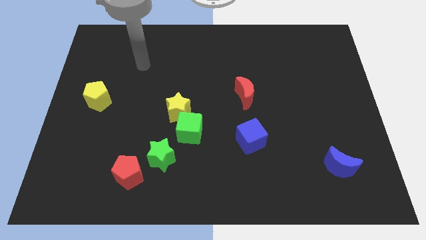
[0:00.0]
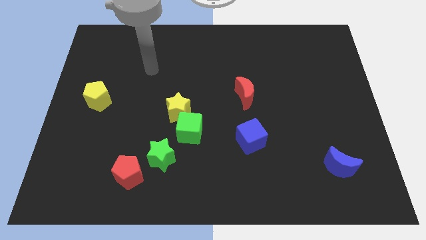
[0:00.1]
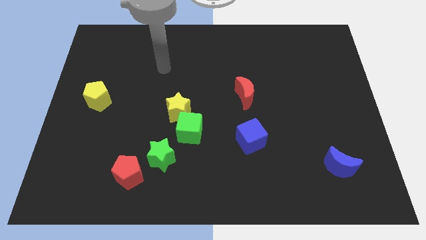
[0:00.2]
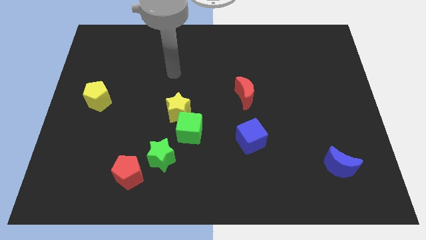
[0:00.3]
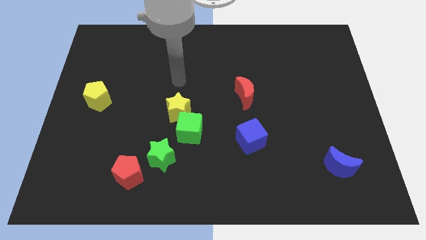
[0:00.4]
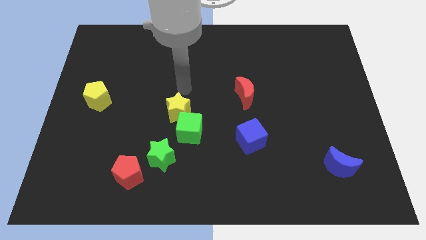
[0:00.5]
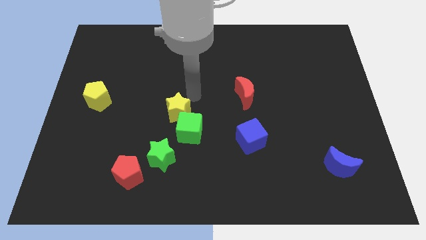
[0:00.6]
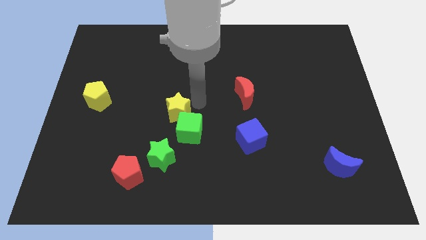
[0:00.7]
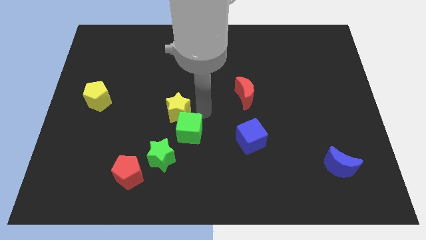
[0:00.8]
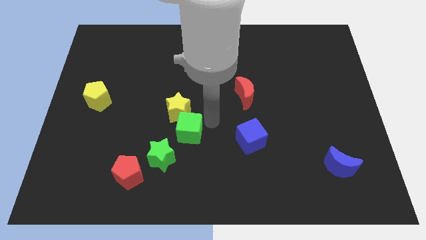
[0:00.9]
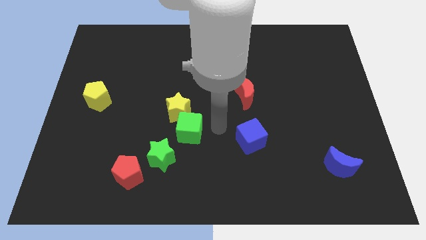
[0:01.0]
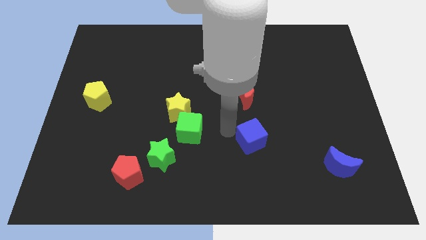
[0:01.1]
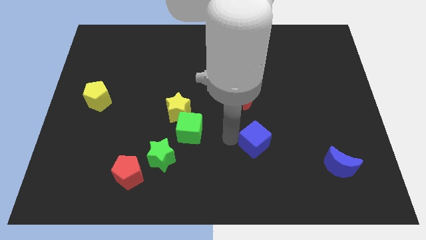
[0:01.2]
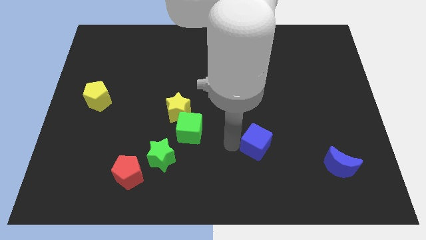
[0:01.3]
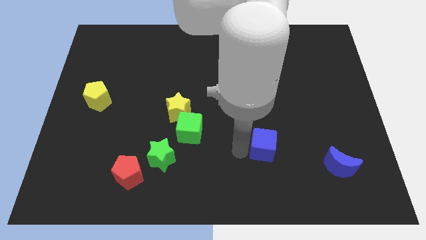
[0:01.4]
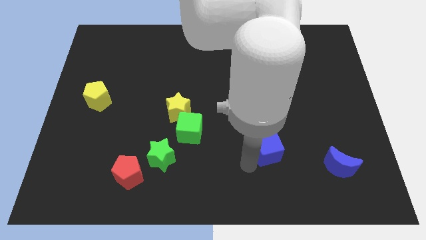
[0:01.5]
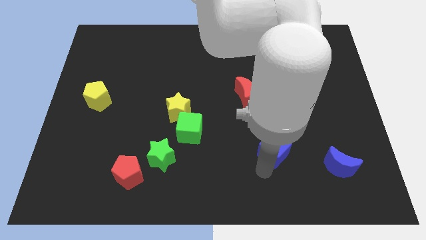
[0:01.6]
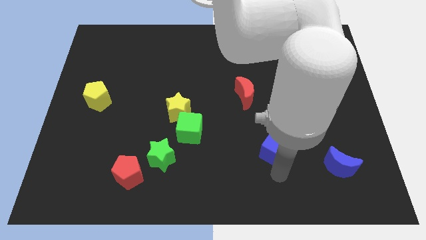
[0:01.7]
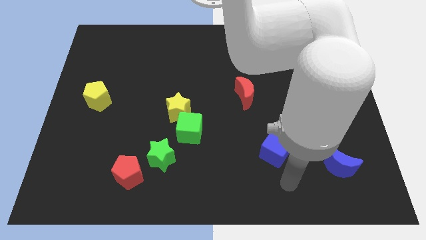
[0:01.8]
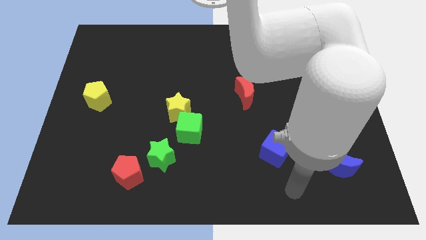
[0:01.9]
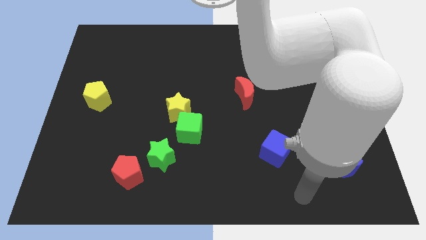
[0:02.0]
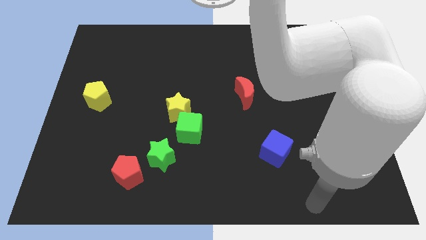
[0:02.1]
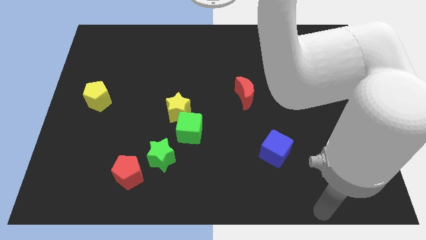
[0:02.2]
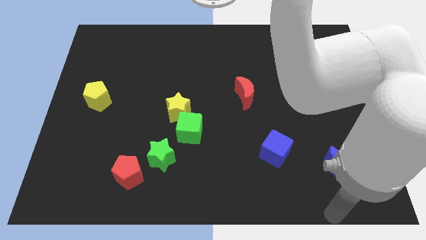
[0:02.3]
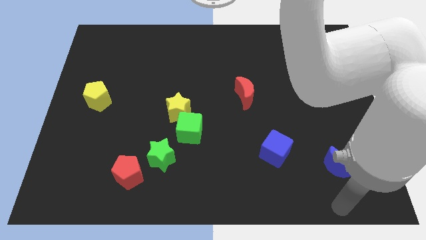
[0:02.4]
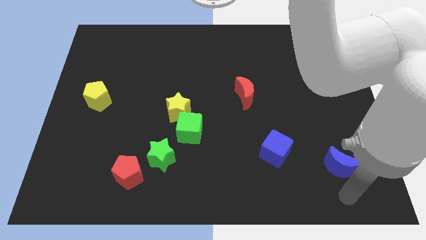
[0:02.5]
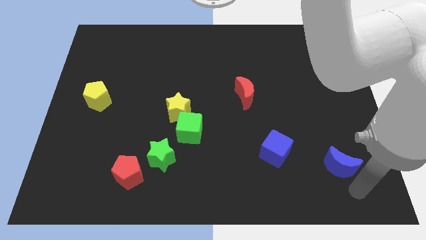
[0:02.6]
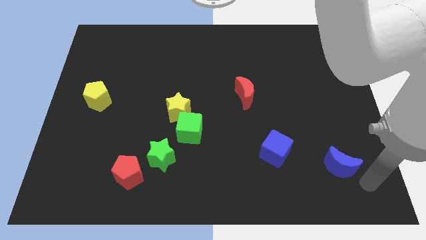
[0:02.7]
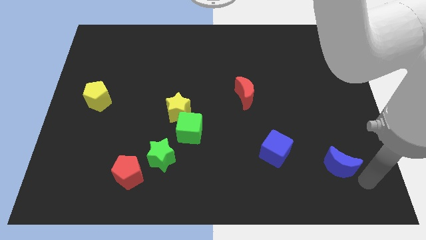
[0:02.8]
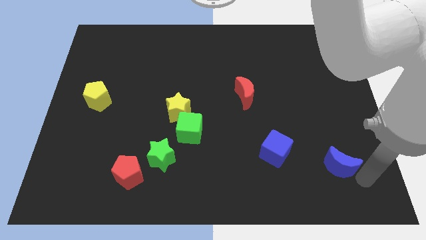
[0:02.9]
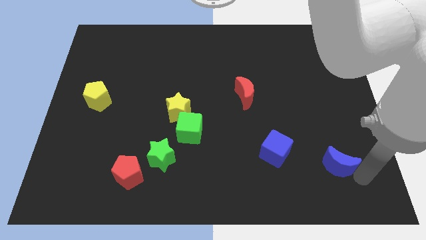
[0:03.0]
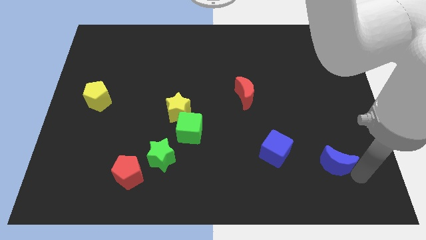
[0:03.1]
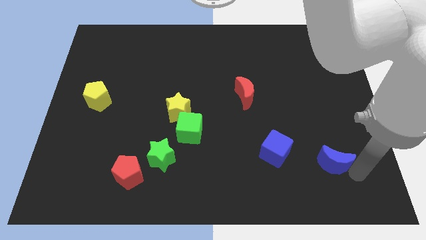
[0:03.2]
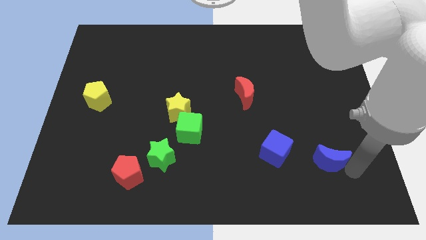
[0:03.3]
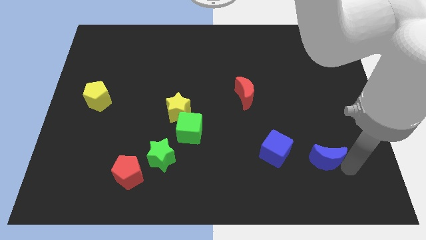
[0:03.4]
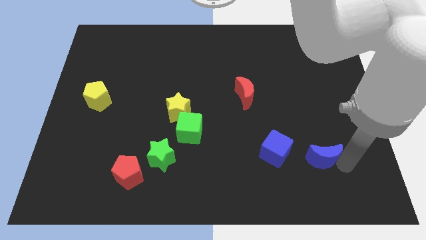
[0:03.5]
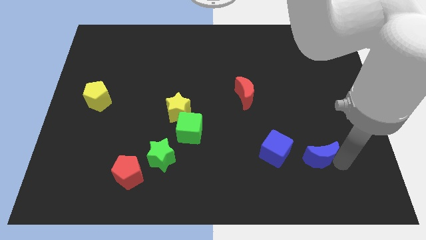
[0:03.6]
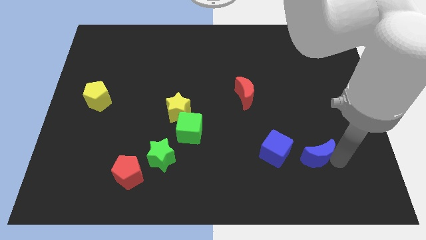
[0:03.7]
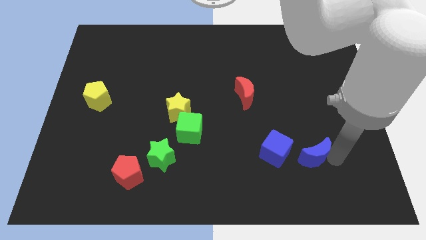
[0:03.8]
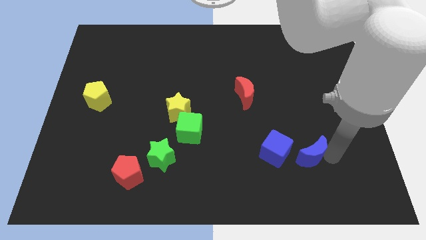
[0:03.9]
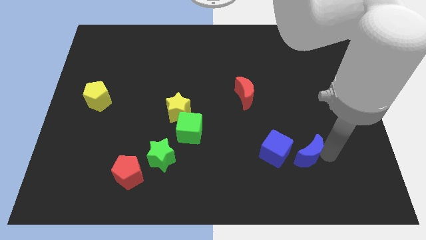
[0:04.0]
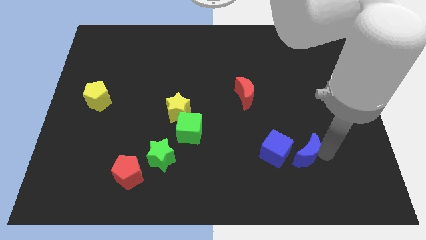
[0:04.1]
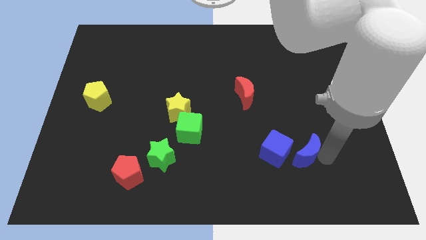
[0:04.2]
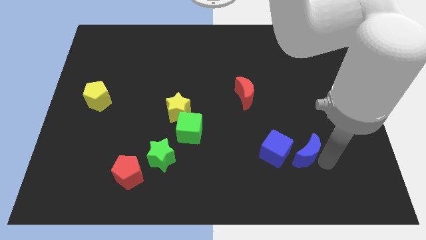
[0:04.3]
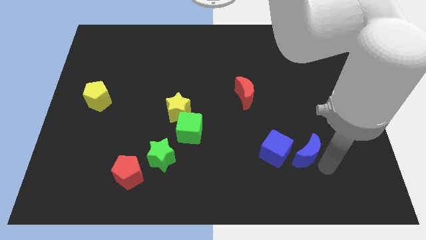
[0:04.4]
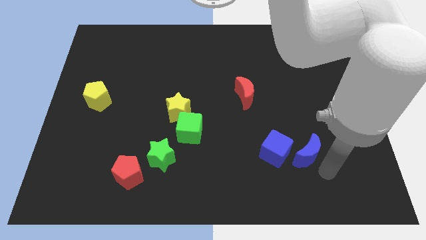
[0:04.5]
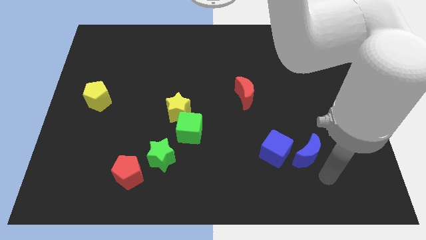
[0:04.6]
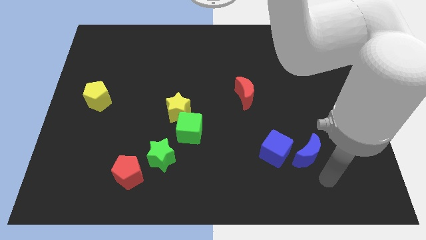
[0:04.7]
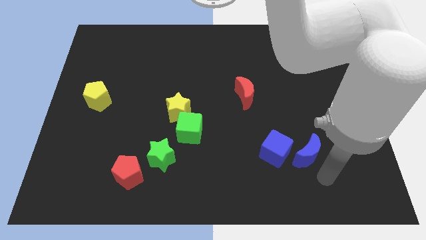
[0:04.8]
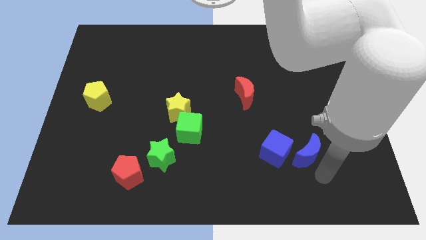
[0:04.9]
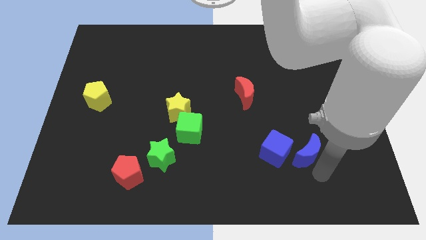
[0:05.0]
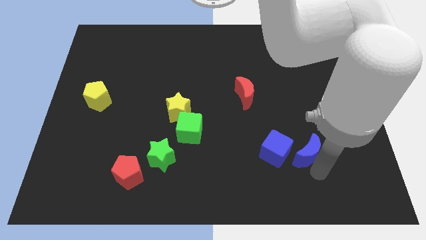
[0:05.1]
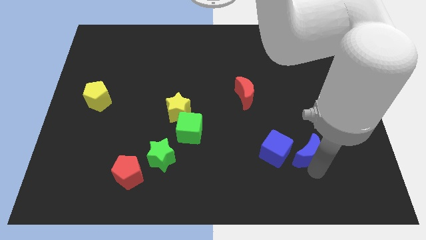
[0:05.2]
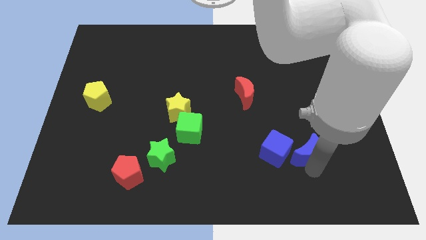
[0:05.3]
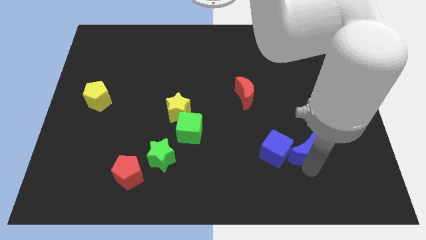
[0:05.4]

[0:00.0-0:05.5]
move the blue moon a bit upwards and left

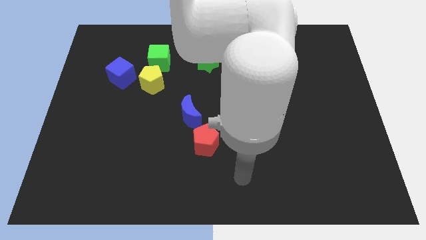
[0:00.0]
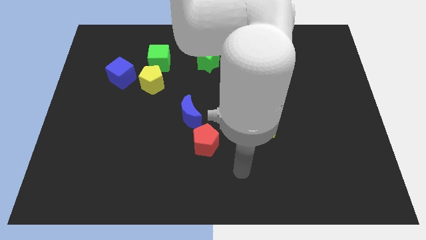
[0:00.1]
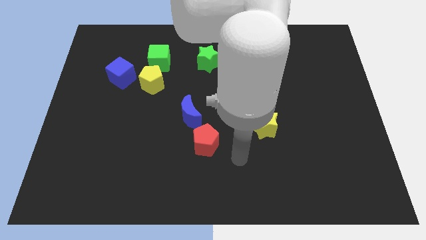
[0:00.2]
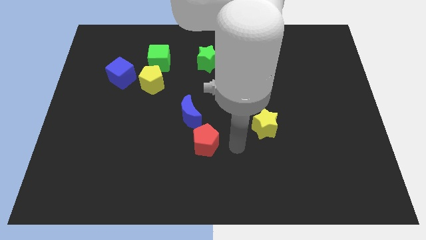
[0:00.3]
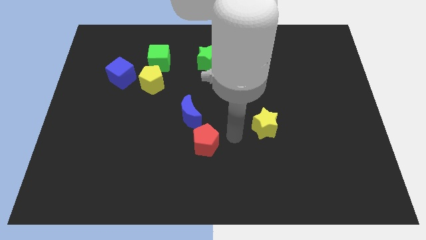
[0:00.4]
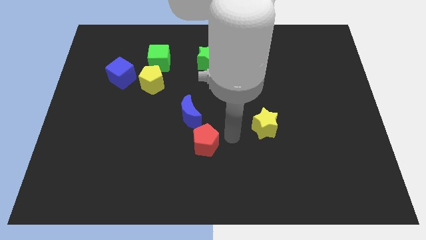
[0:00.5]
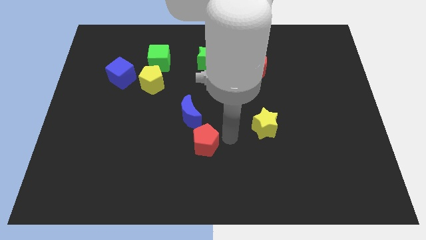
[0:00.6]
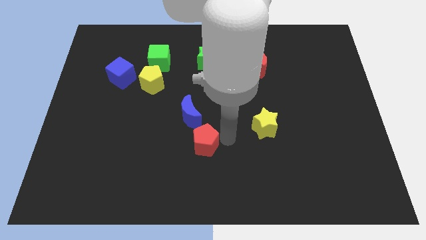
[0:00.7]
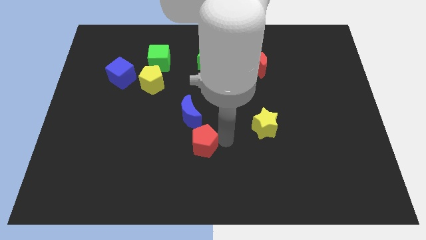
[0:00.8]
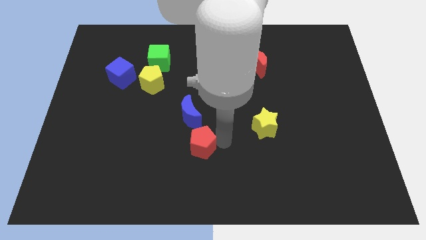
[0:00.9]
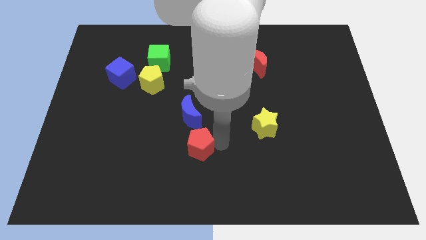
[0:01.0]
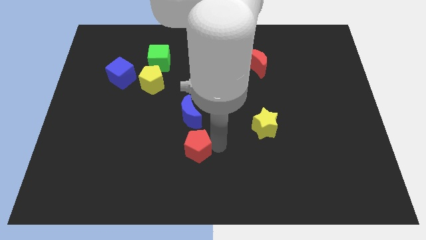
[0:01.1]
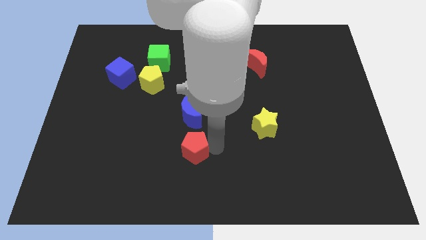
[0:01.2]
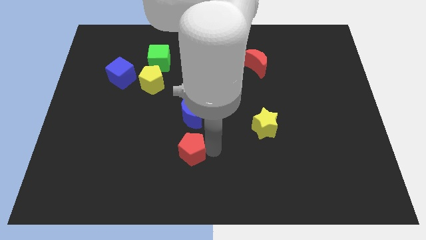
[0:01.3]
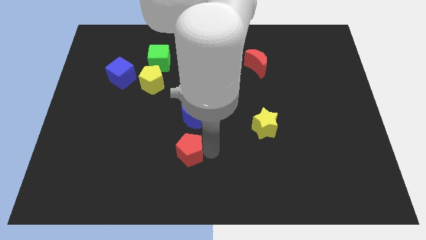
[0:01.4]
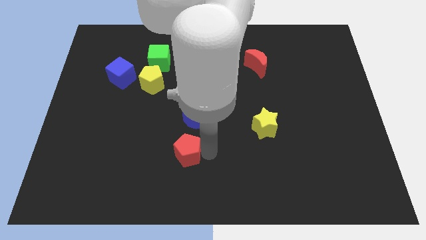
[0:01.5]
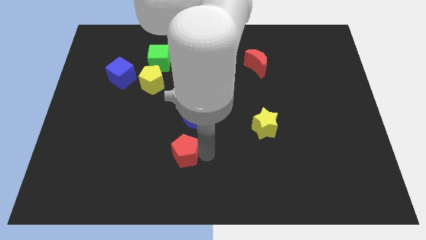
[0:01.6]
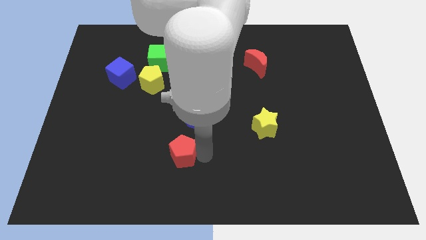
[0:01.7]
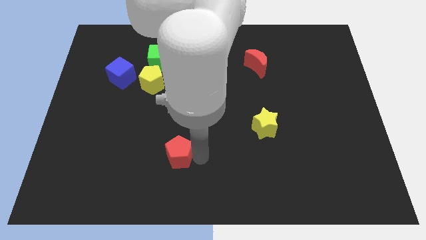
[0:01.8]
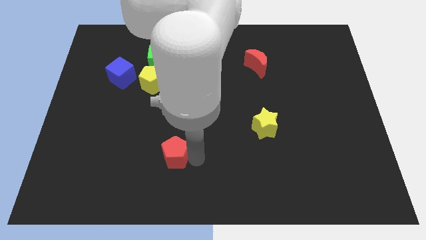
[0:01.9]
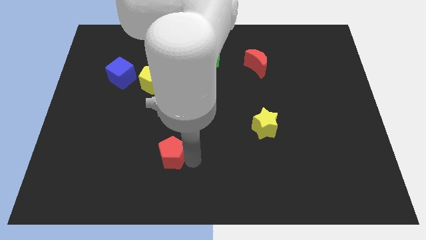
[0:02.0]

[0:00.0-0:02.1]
move the red pentagon to the left somewhat

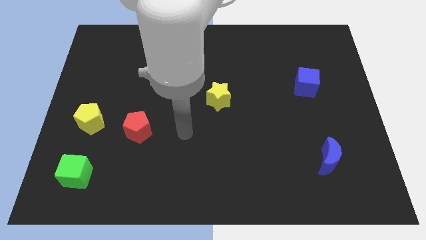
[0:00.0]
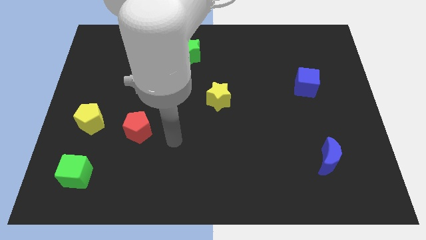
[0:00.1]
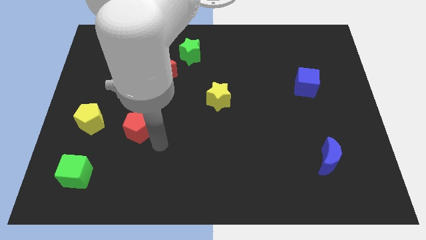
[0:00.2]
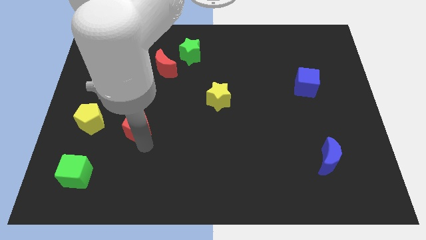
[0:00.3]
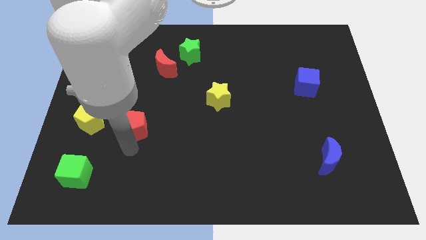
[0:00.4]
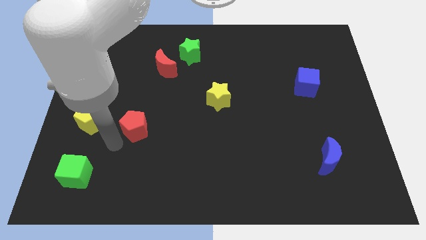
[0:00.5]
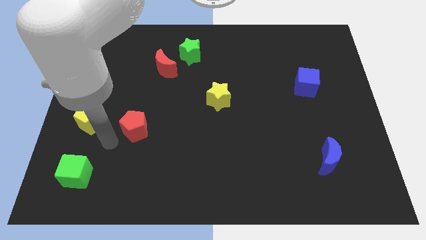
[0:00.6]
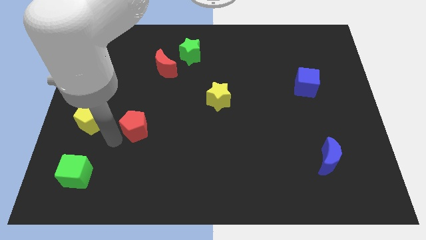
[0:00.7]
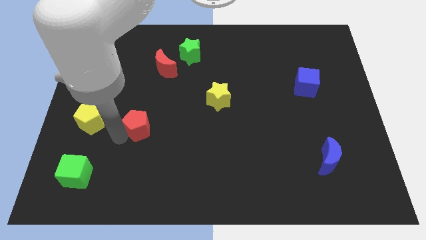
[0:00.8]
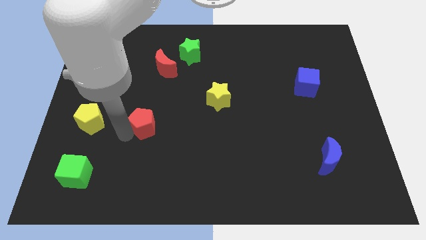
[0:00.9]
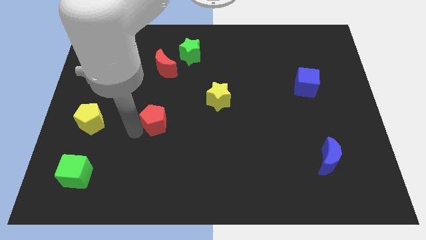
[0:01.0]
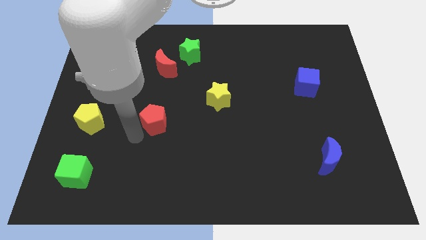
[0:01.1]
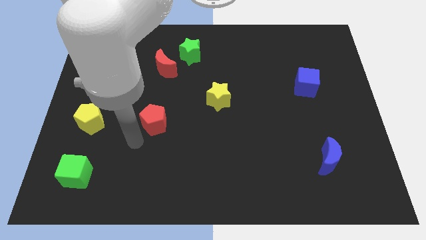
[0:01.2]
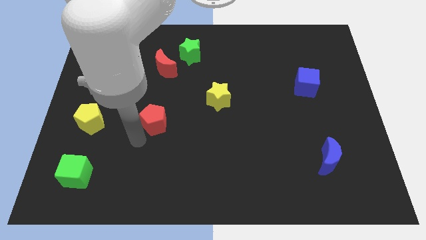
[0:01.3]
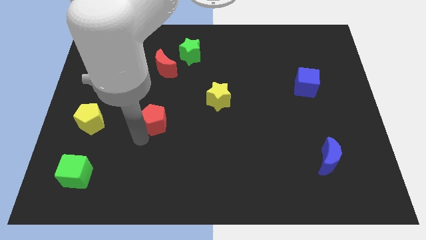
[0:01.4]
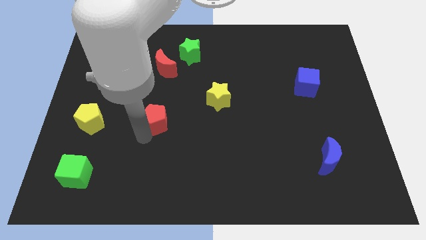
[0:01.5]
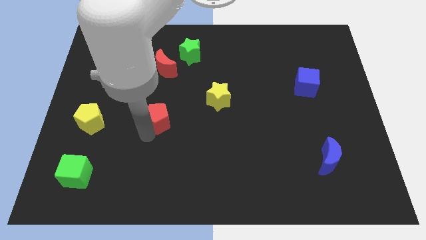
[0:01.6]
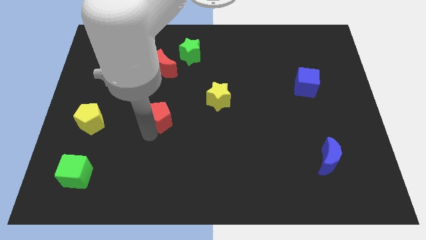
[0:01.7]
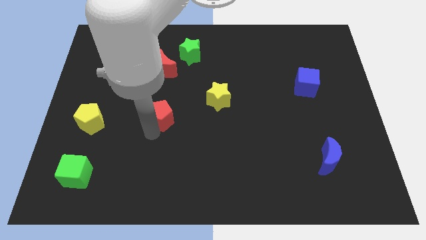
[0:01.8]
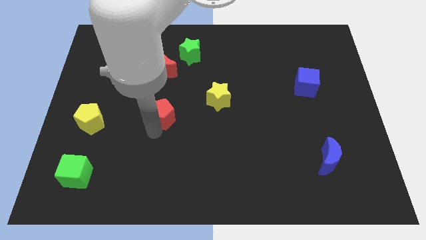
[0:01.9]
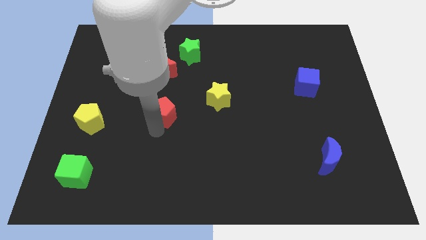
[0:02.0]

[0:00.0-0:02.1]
slightly slide the red pentagon upwards and right diagonally
